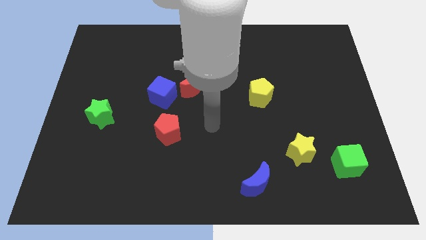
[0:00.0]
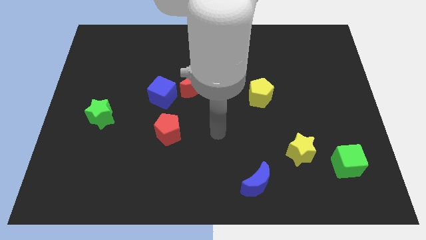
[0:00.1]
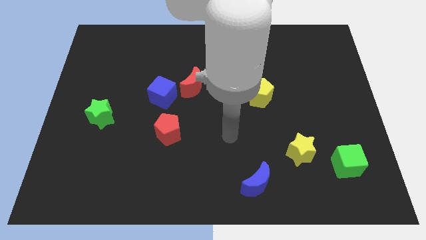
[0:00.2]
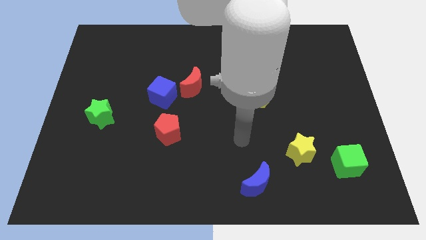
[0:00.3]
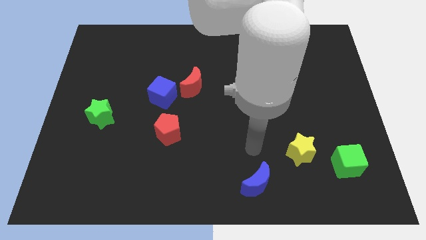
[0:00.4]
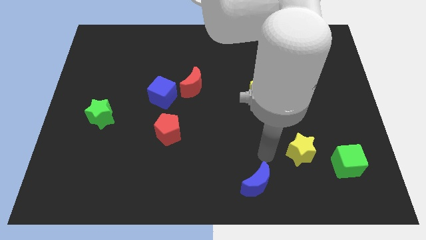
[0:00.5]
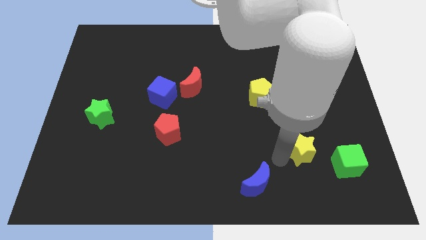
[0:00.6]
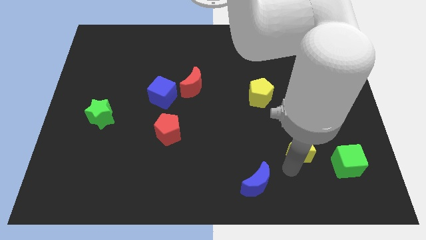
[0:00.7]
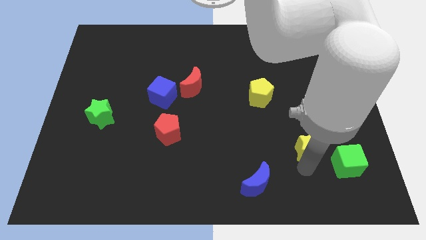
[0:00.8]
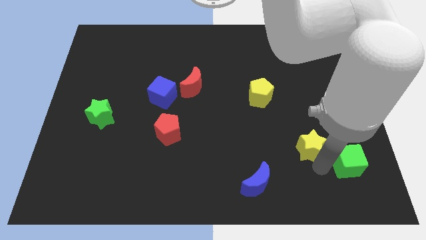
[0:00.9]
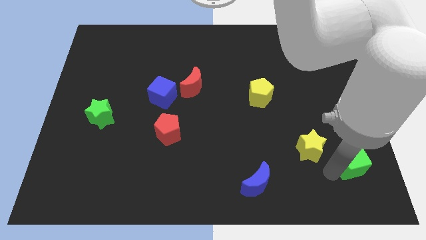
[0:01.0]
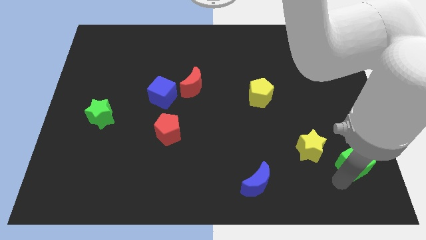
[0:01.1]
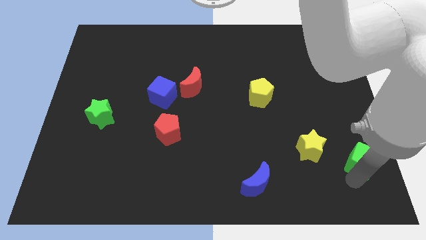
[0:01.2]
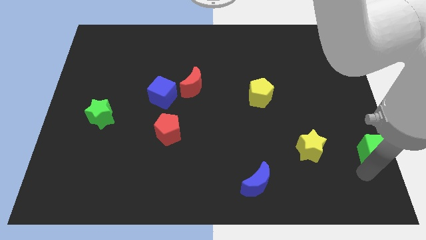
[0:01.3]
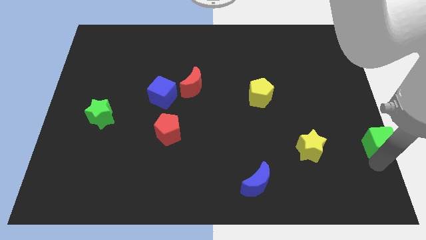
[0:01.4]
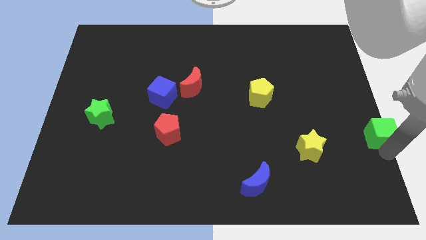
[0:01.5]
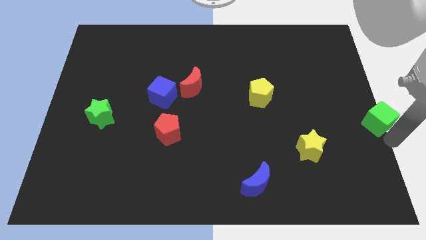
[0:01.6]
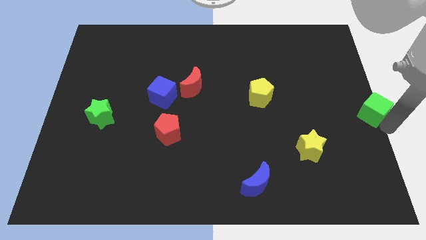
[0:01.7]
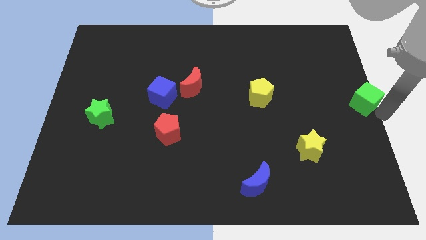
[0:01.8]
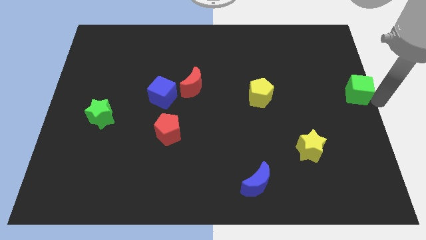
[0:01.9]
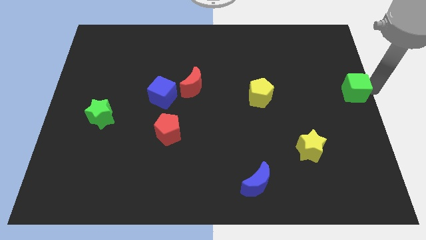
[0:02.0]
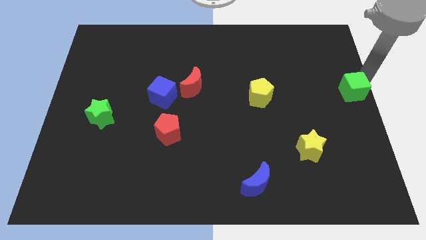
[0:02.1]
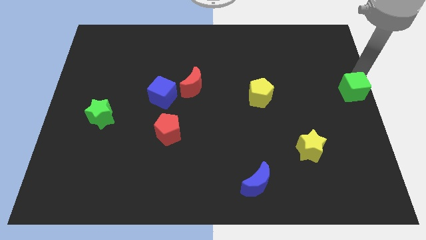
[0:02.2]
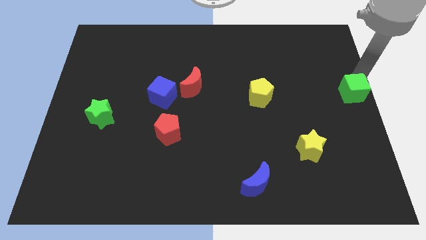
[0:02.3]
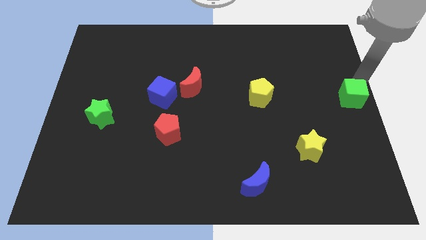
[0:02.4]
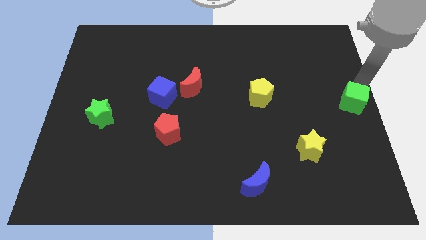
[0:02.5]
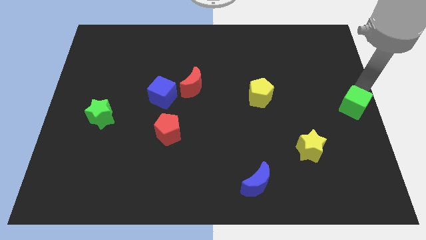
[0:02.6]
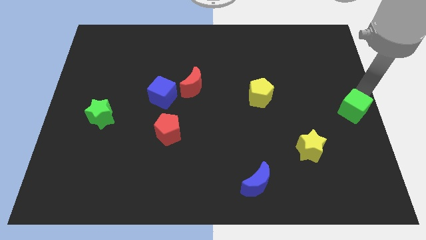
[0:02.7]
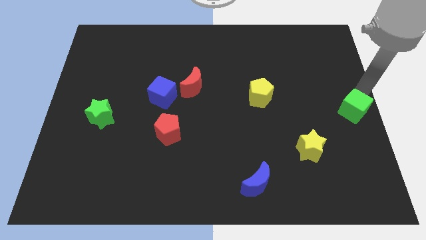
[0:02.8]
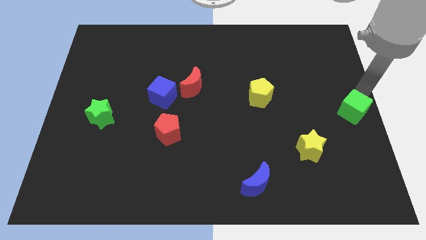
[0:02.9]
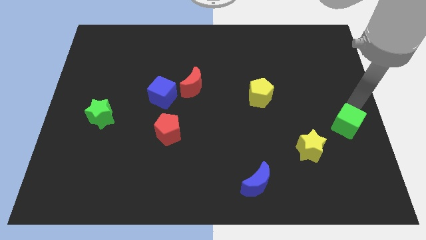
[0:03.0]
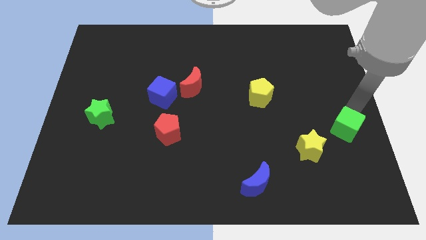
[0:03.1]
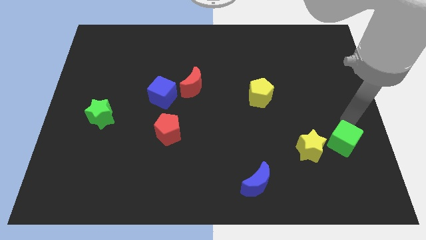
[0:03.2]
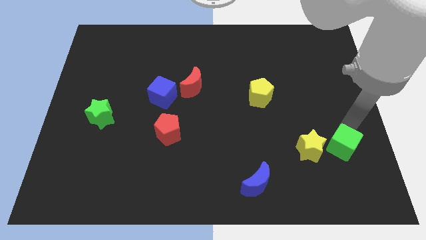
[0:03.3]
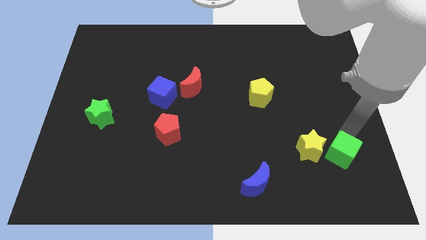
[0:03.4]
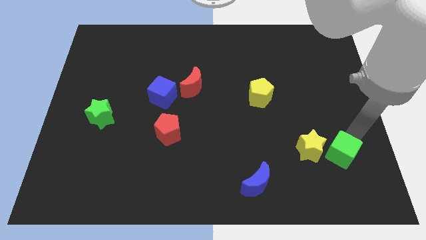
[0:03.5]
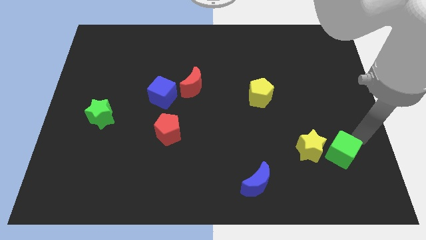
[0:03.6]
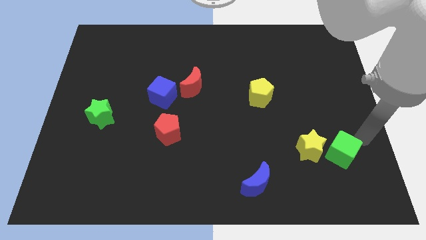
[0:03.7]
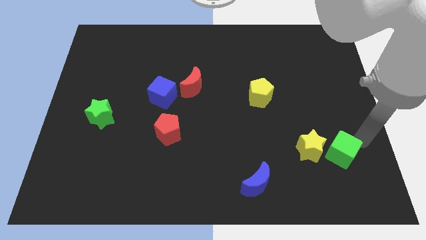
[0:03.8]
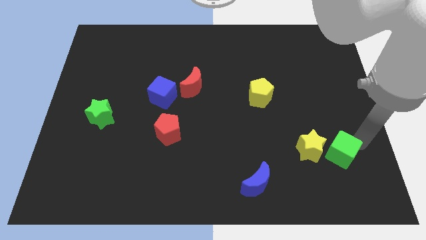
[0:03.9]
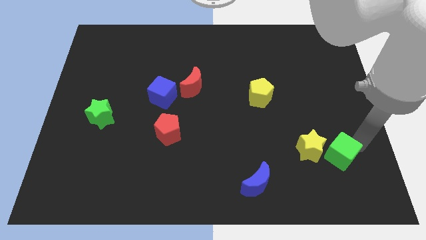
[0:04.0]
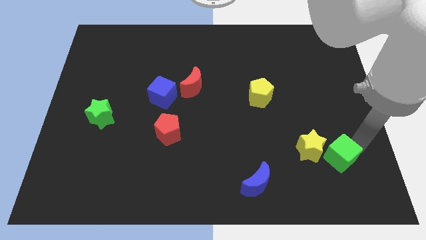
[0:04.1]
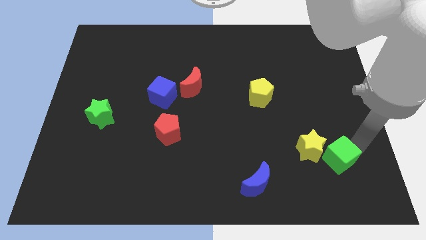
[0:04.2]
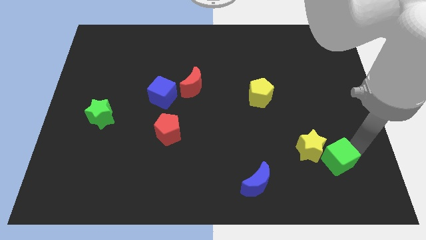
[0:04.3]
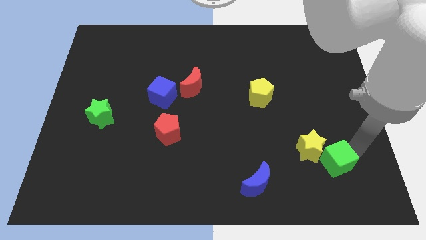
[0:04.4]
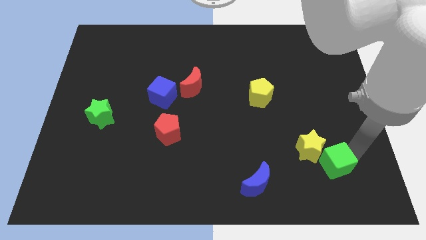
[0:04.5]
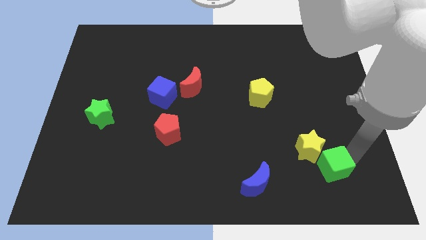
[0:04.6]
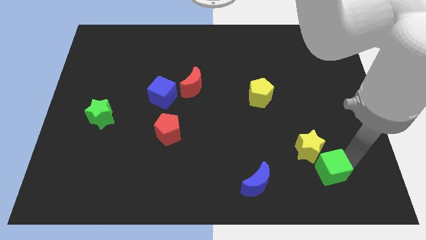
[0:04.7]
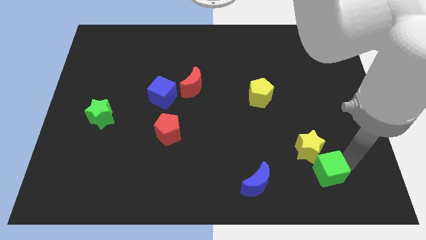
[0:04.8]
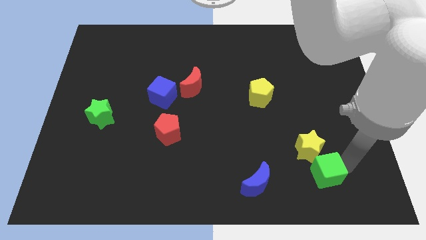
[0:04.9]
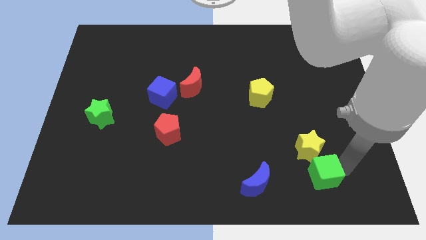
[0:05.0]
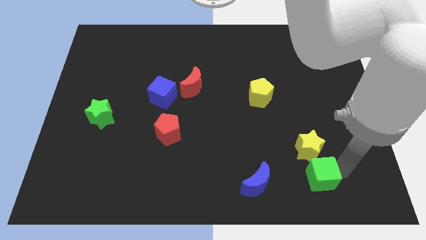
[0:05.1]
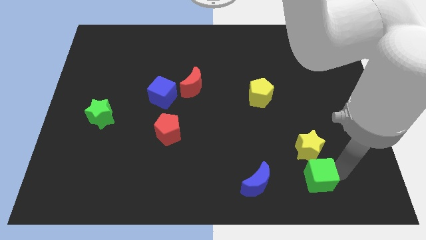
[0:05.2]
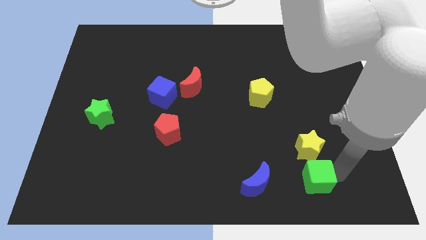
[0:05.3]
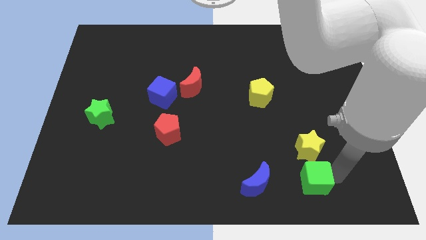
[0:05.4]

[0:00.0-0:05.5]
push the green cube left a bit

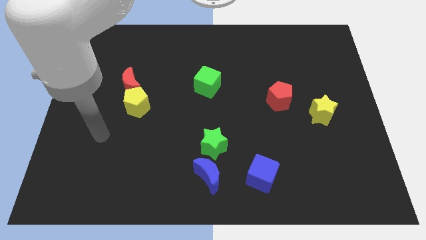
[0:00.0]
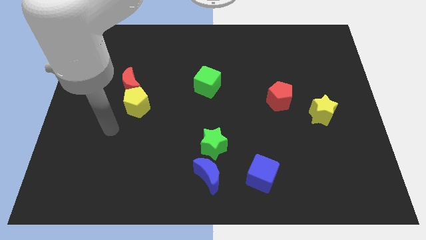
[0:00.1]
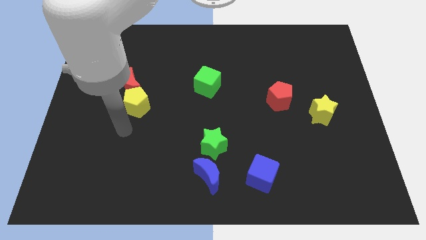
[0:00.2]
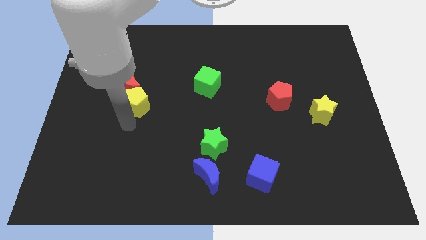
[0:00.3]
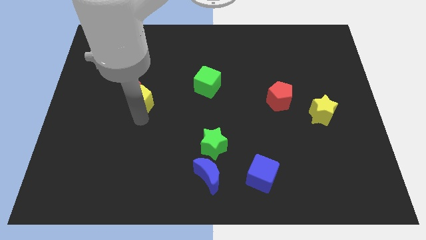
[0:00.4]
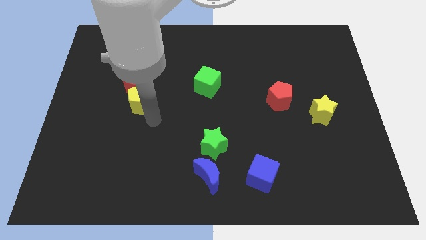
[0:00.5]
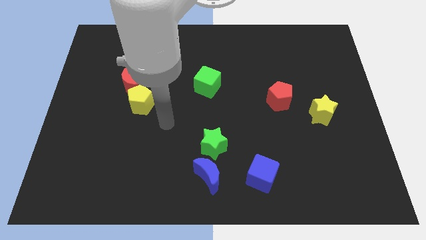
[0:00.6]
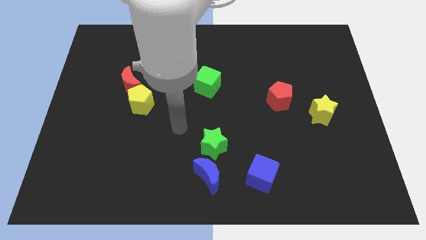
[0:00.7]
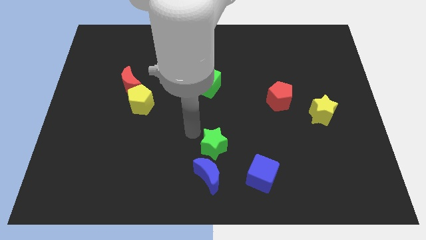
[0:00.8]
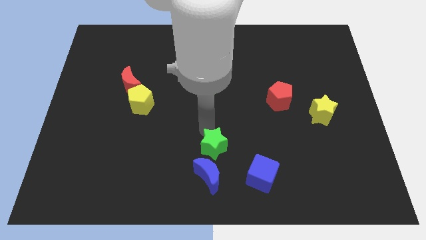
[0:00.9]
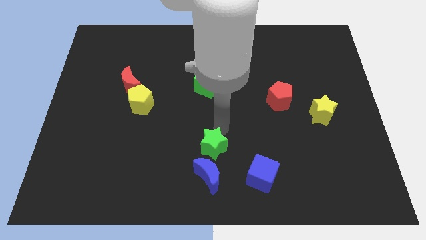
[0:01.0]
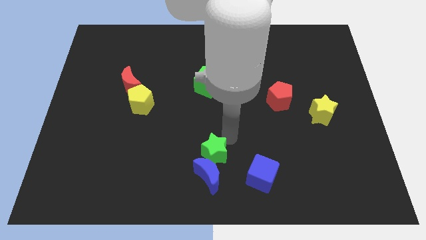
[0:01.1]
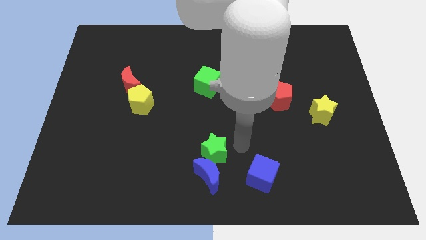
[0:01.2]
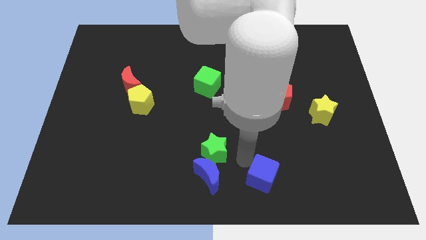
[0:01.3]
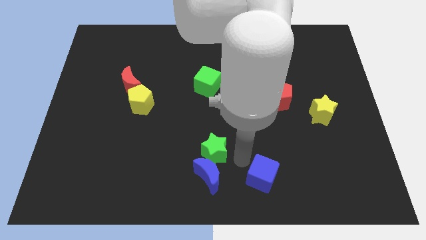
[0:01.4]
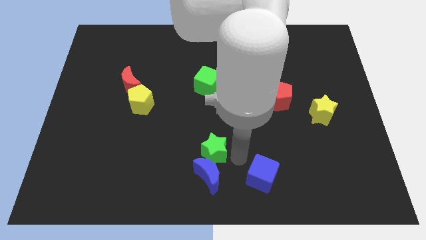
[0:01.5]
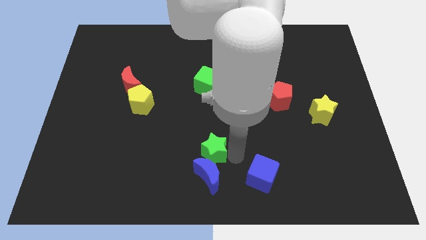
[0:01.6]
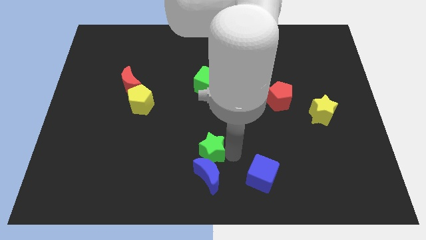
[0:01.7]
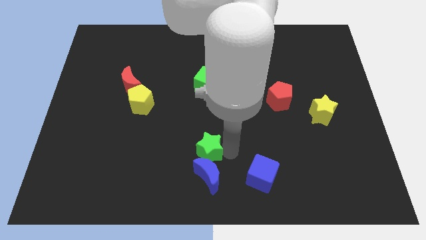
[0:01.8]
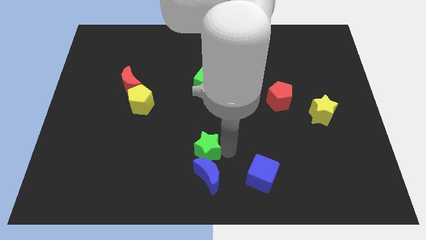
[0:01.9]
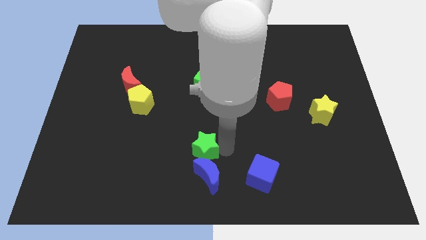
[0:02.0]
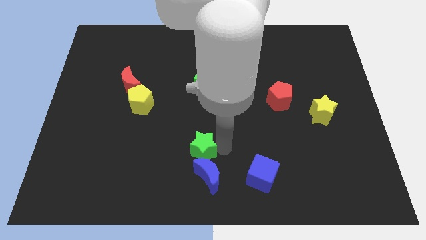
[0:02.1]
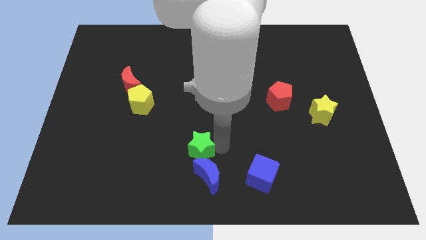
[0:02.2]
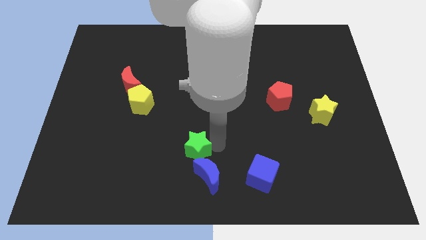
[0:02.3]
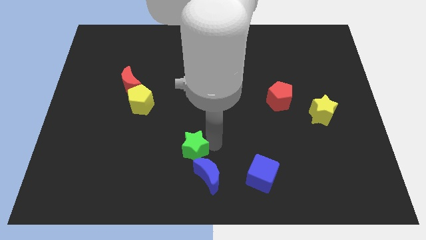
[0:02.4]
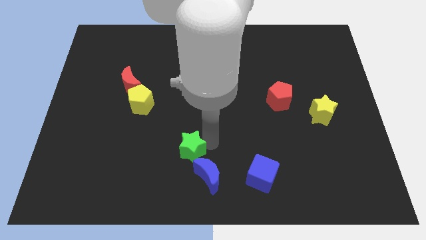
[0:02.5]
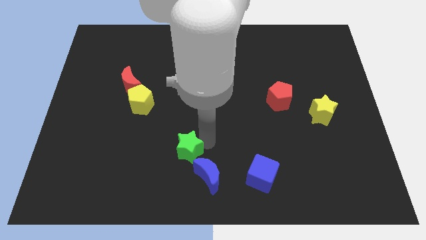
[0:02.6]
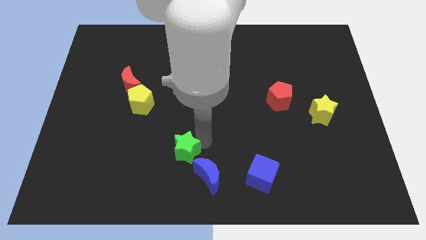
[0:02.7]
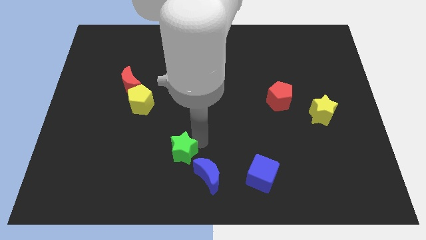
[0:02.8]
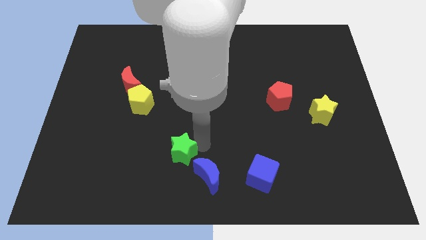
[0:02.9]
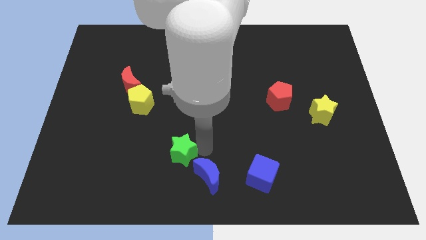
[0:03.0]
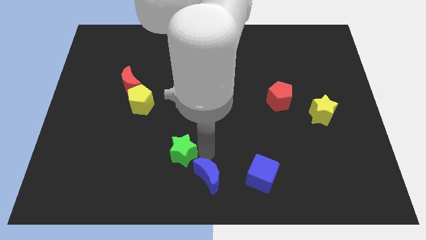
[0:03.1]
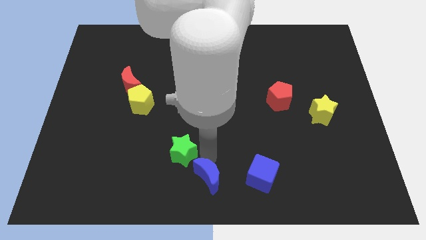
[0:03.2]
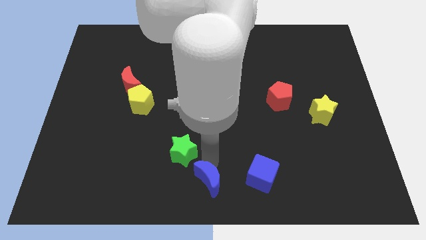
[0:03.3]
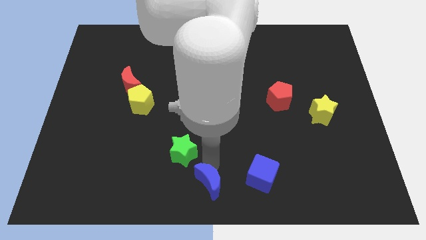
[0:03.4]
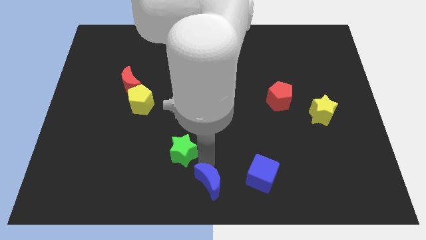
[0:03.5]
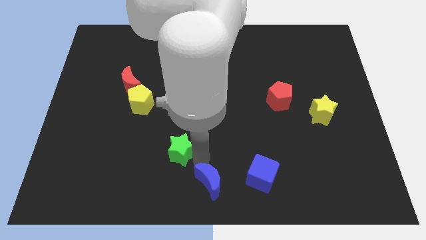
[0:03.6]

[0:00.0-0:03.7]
slightly move the green star left
